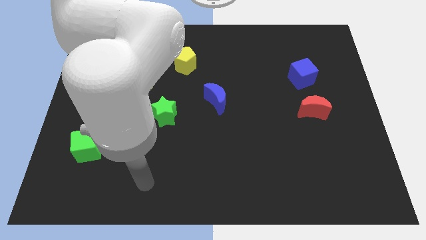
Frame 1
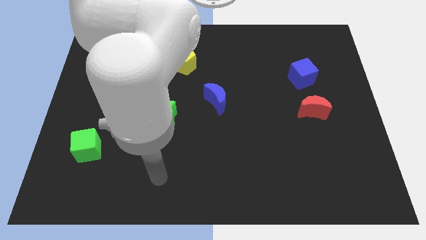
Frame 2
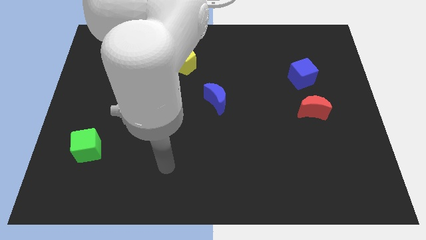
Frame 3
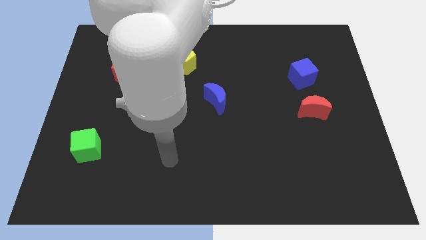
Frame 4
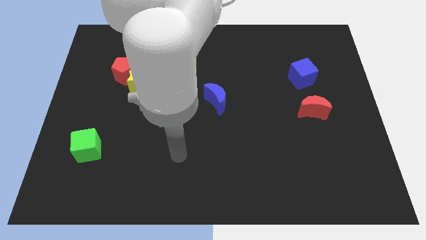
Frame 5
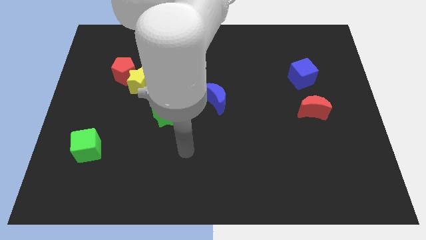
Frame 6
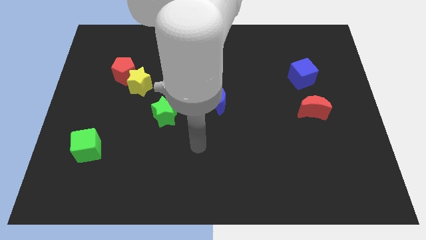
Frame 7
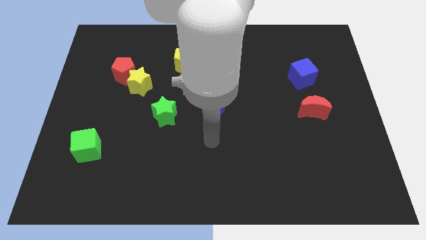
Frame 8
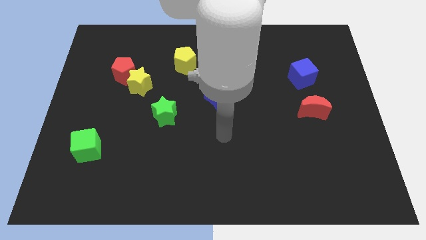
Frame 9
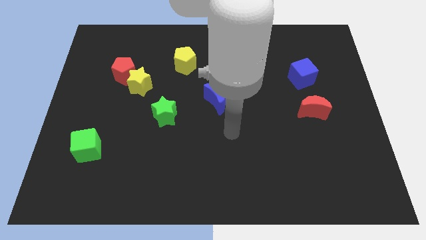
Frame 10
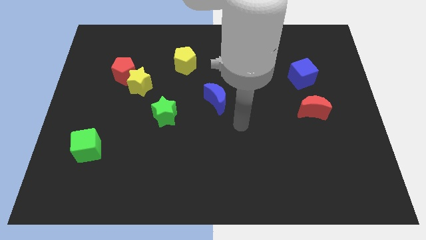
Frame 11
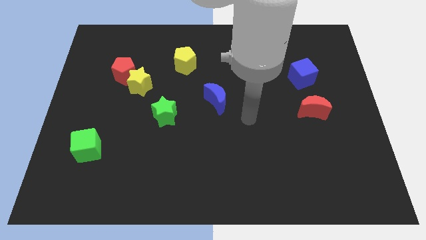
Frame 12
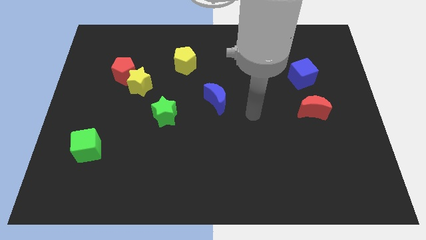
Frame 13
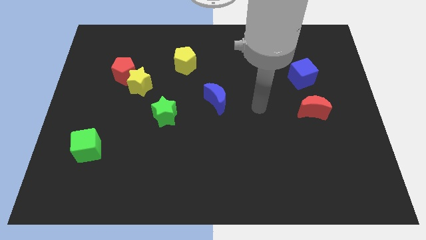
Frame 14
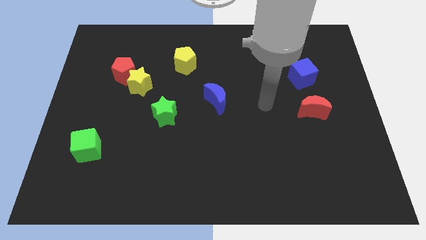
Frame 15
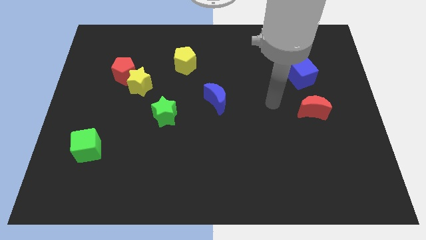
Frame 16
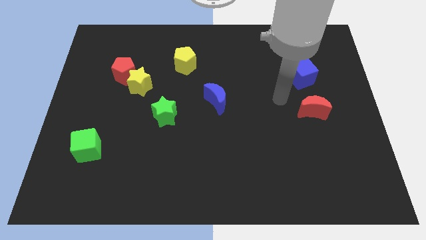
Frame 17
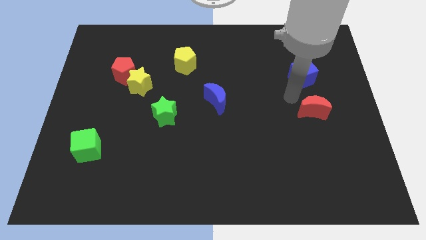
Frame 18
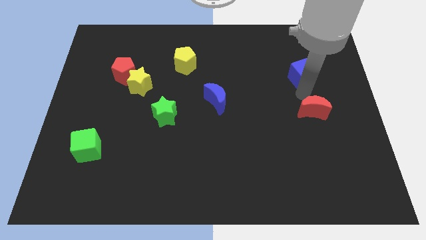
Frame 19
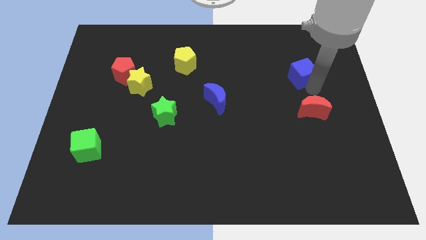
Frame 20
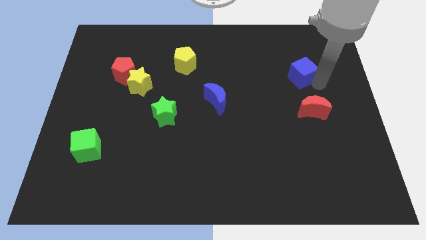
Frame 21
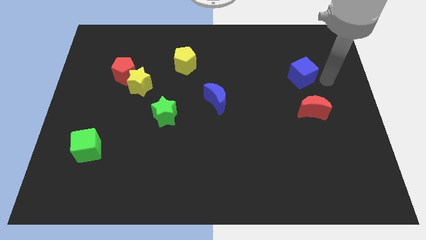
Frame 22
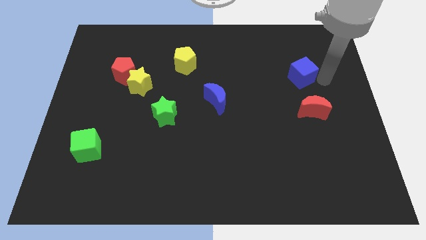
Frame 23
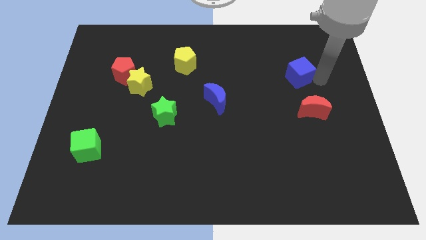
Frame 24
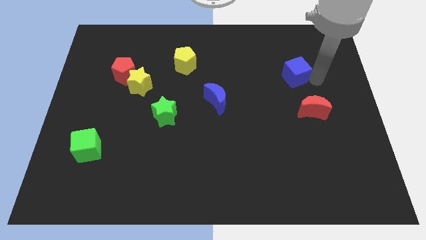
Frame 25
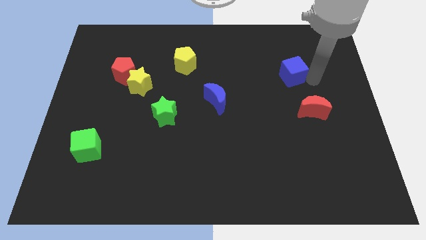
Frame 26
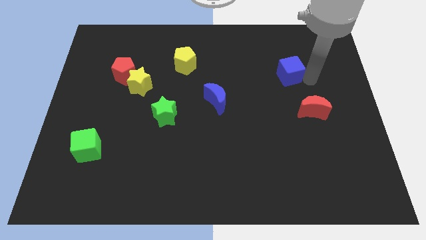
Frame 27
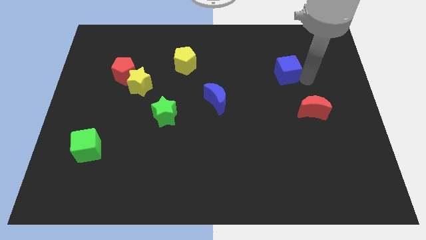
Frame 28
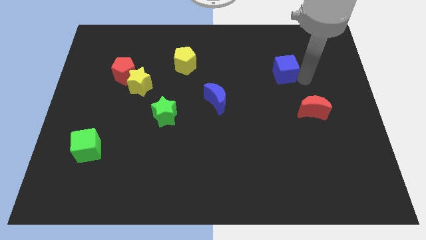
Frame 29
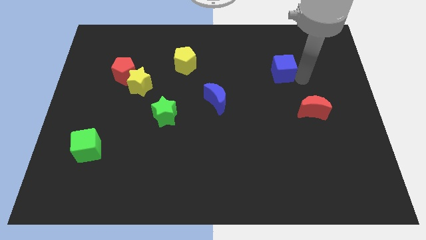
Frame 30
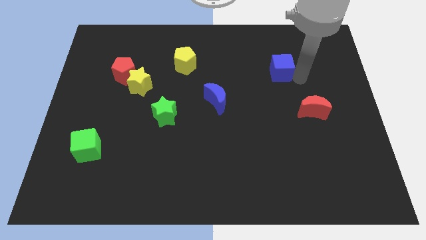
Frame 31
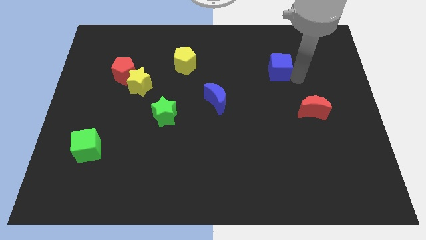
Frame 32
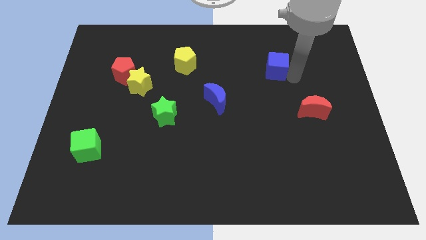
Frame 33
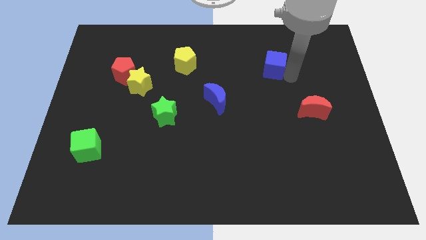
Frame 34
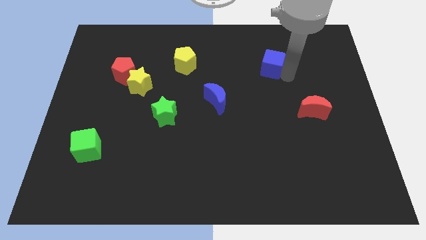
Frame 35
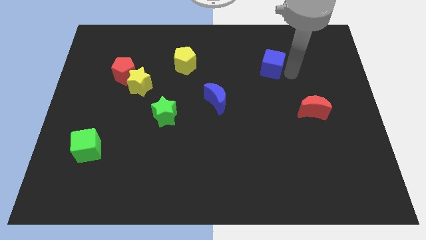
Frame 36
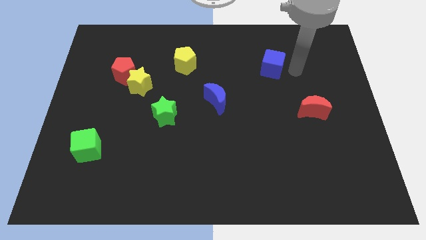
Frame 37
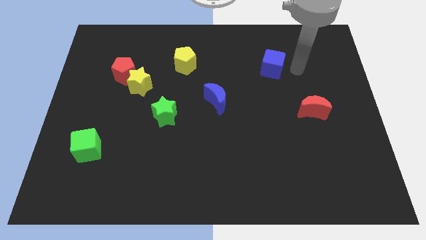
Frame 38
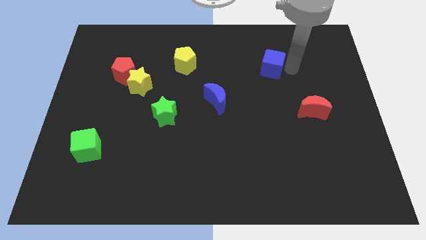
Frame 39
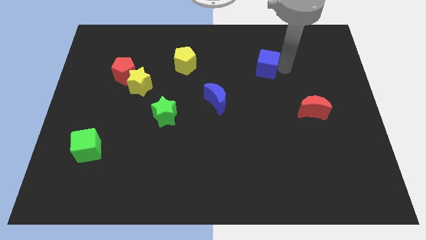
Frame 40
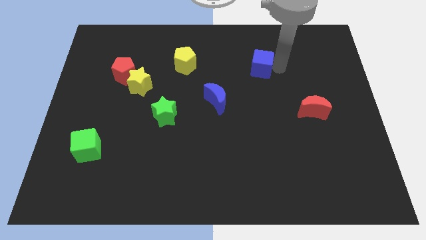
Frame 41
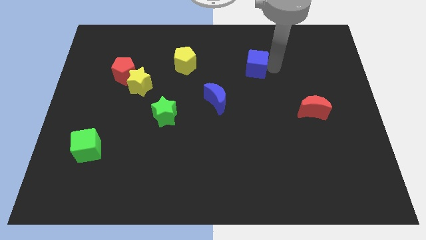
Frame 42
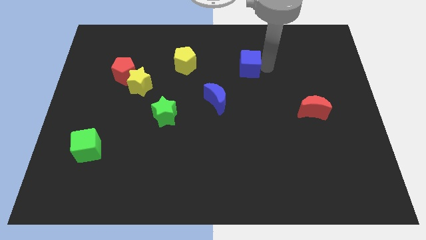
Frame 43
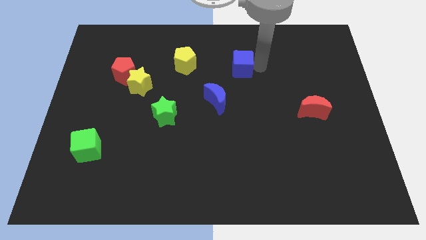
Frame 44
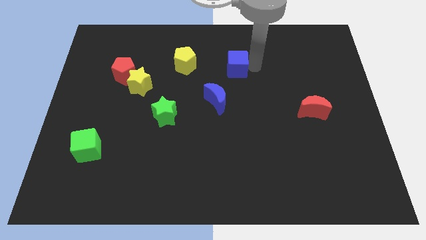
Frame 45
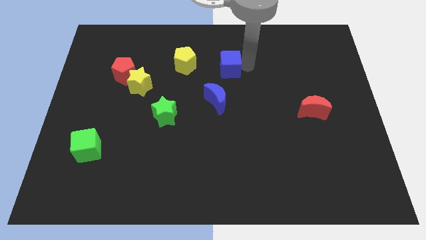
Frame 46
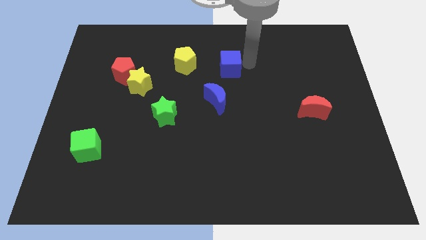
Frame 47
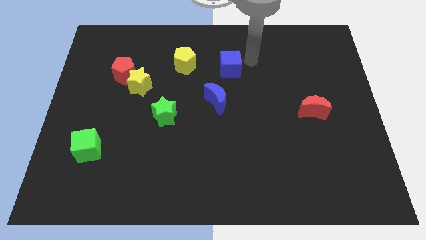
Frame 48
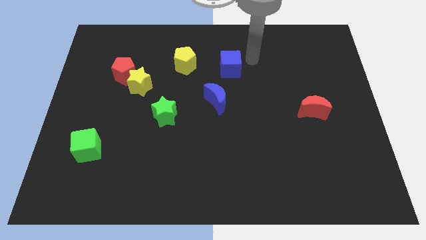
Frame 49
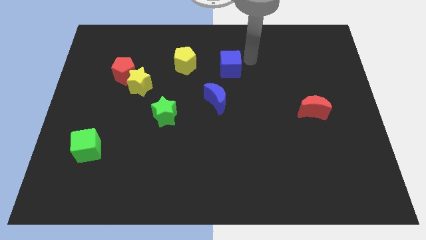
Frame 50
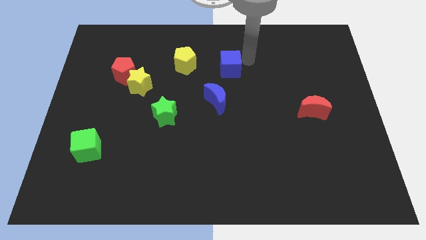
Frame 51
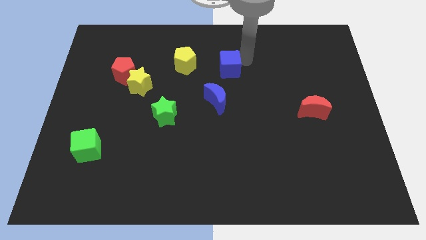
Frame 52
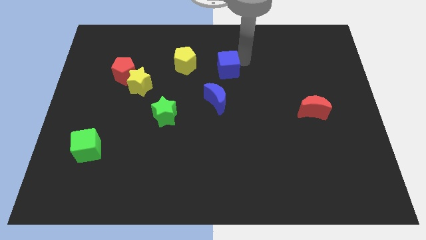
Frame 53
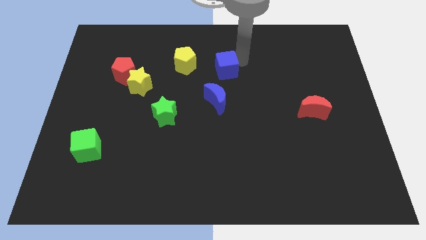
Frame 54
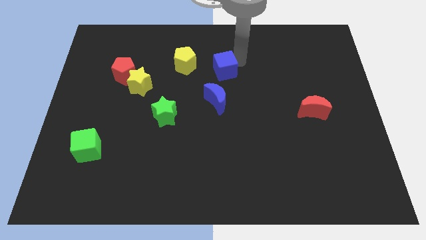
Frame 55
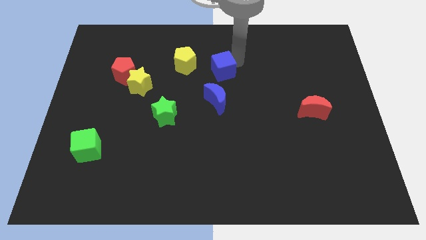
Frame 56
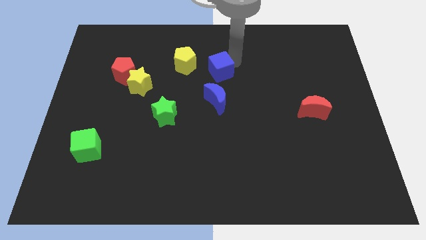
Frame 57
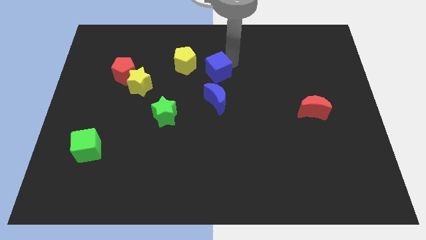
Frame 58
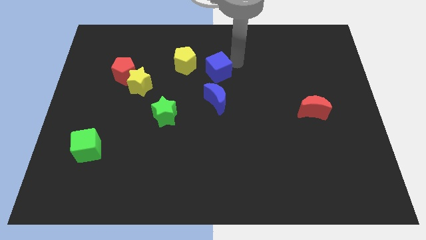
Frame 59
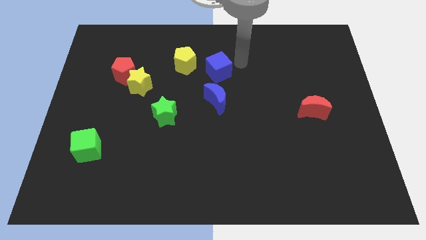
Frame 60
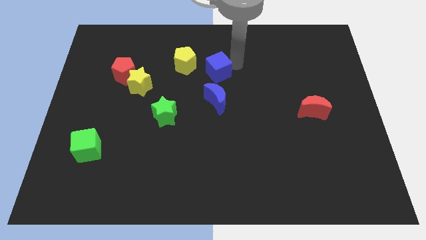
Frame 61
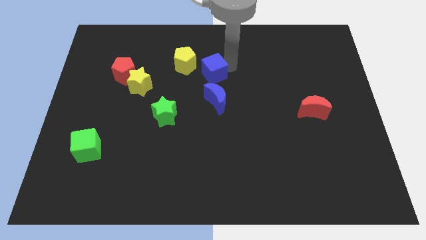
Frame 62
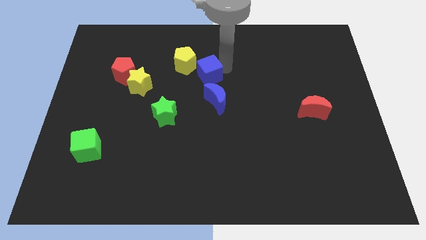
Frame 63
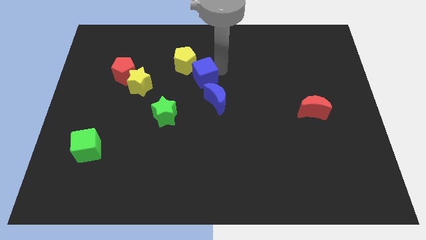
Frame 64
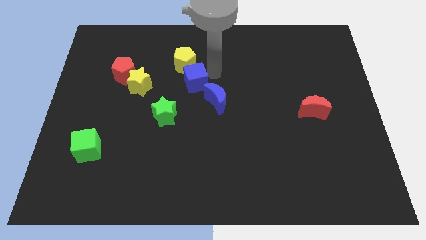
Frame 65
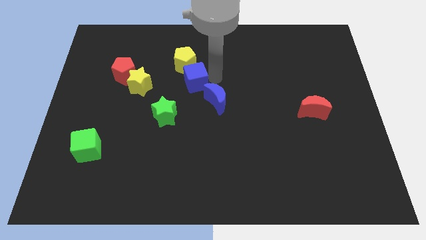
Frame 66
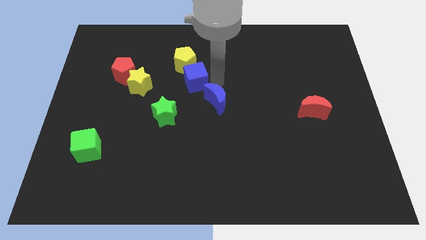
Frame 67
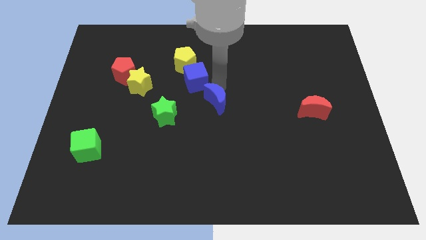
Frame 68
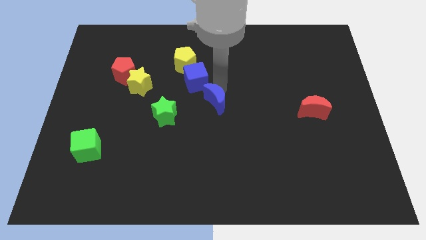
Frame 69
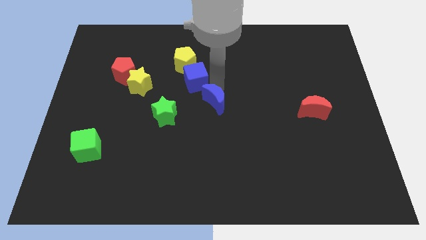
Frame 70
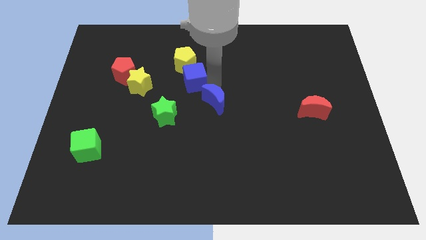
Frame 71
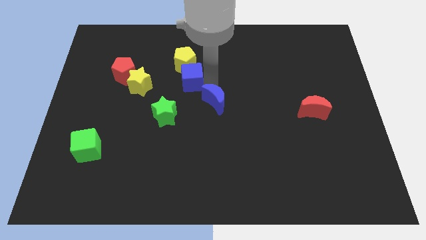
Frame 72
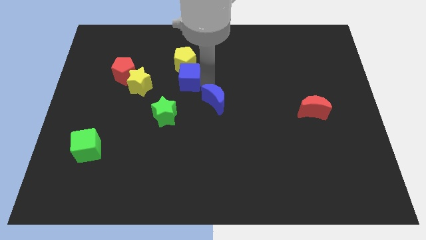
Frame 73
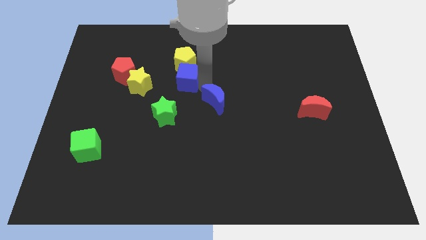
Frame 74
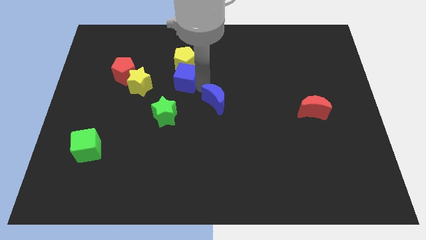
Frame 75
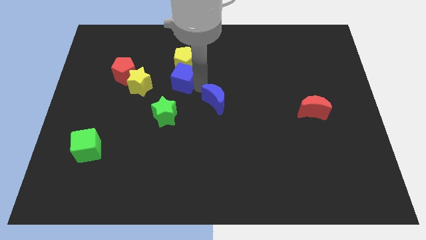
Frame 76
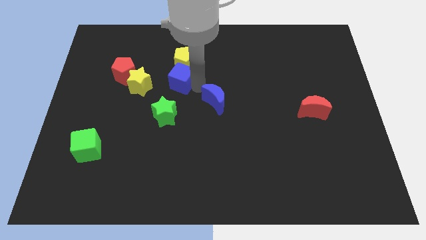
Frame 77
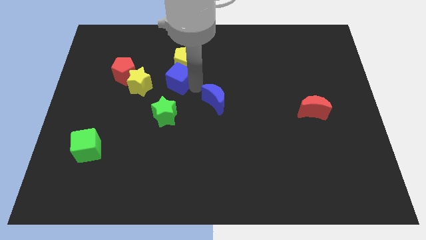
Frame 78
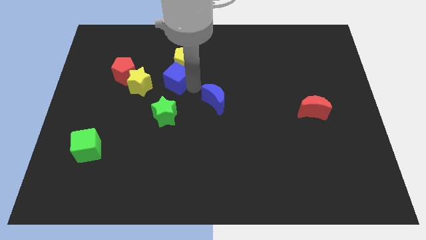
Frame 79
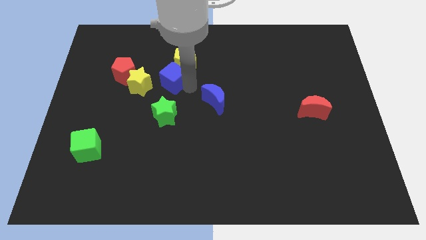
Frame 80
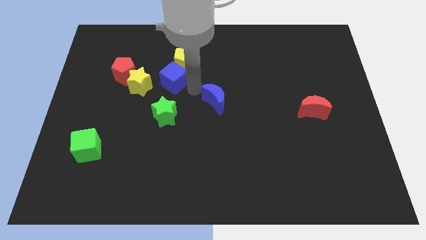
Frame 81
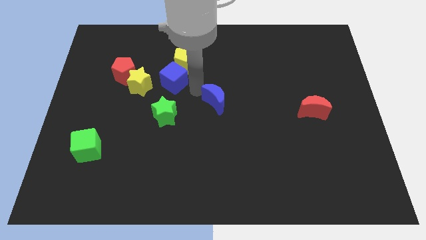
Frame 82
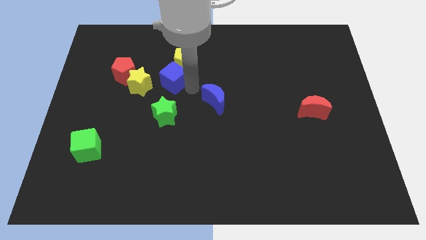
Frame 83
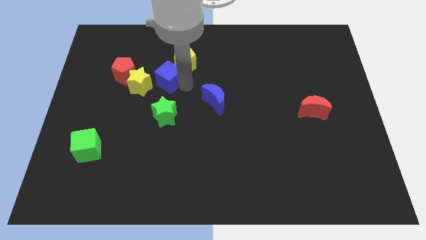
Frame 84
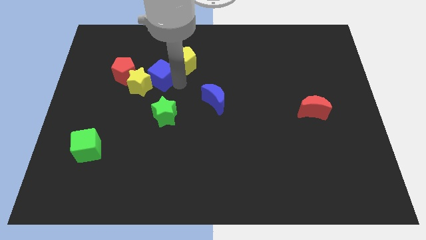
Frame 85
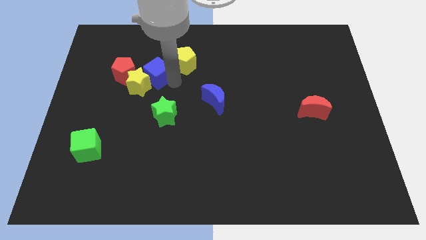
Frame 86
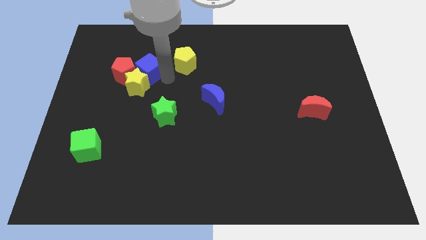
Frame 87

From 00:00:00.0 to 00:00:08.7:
put the blue cube to the red pentagon
